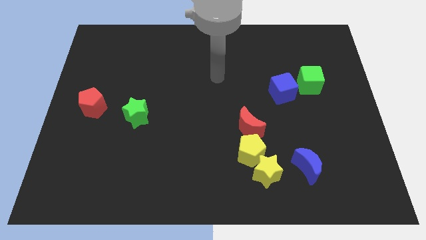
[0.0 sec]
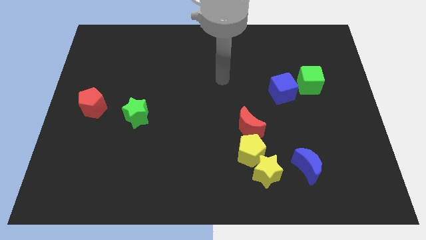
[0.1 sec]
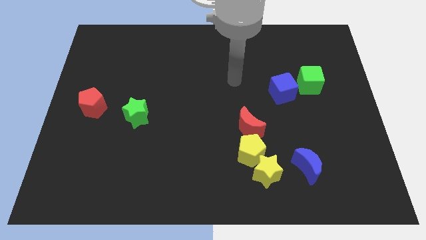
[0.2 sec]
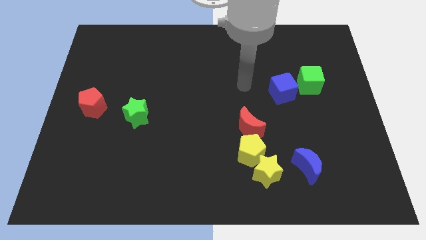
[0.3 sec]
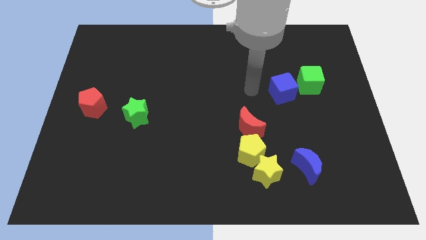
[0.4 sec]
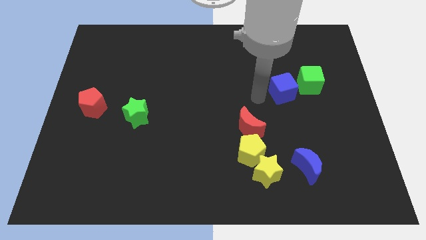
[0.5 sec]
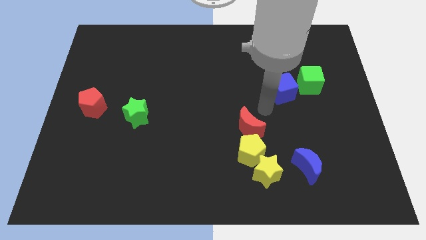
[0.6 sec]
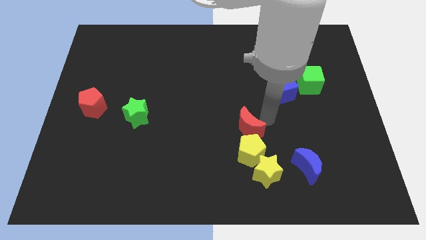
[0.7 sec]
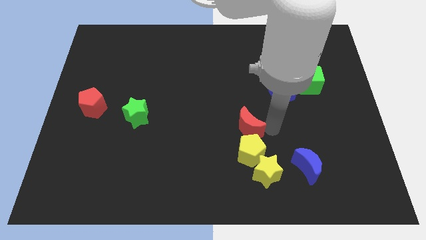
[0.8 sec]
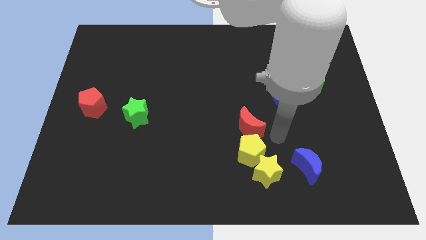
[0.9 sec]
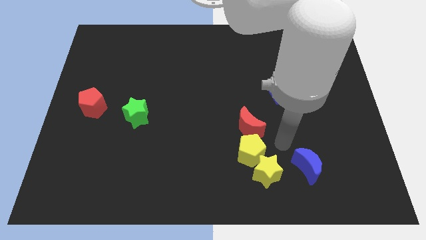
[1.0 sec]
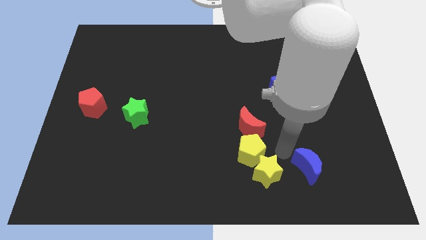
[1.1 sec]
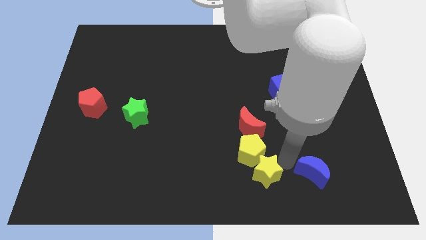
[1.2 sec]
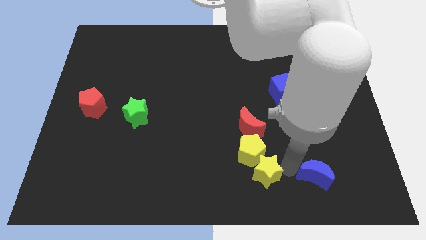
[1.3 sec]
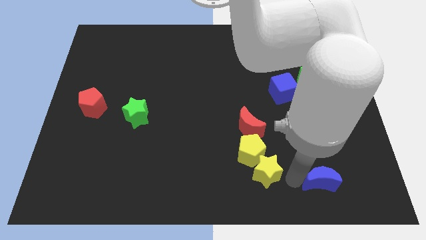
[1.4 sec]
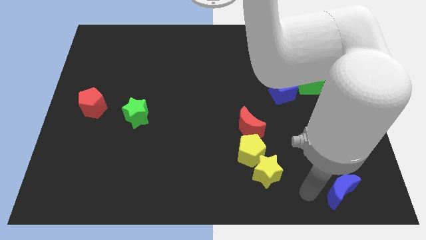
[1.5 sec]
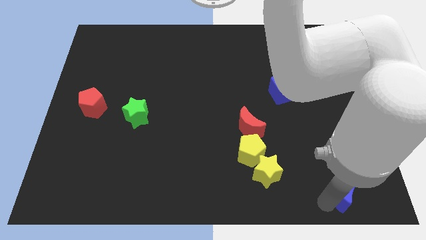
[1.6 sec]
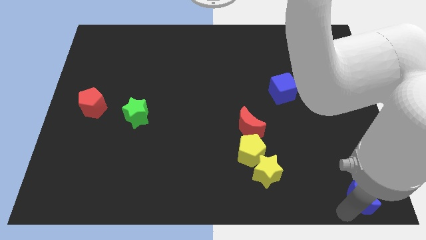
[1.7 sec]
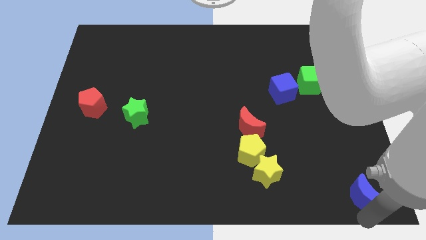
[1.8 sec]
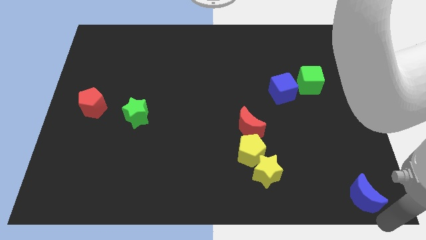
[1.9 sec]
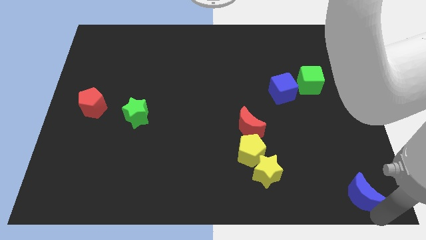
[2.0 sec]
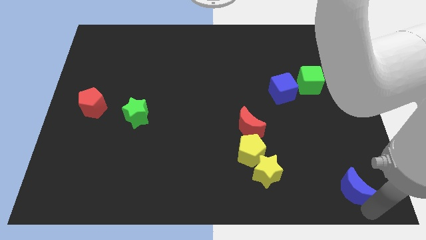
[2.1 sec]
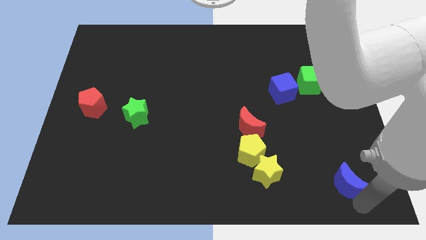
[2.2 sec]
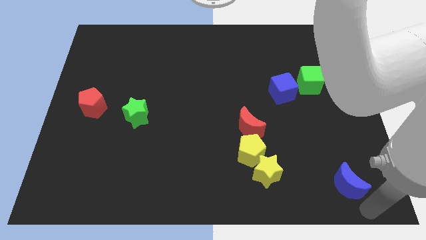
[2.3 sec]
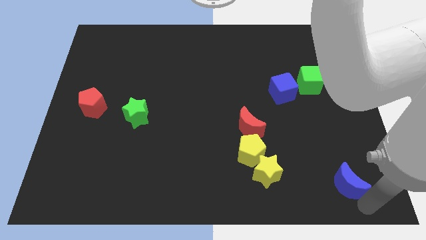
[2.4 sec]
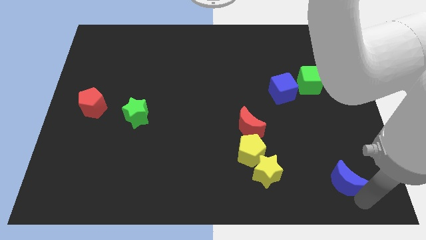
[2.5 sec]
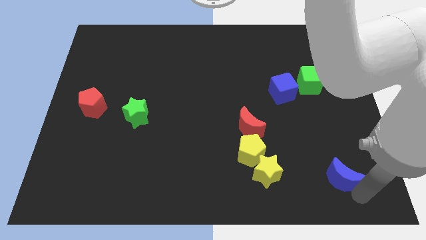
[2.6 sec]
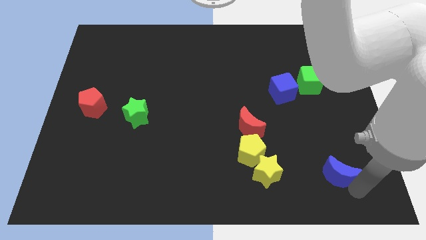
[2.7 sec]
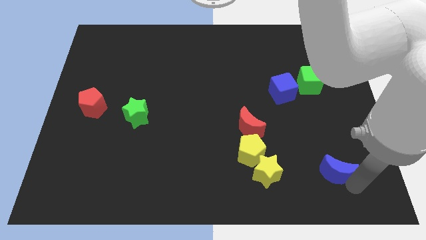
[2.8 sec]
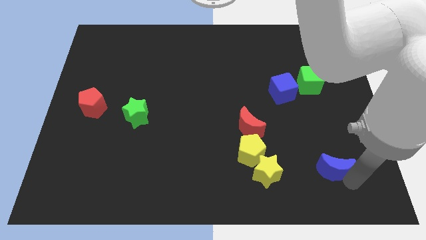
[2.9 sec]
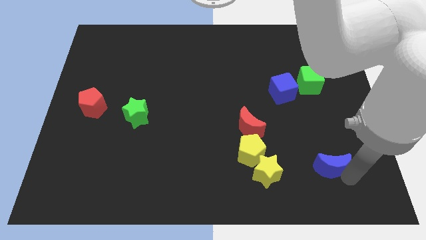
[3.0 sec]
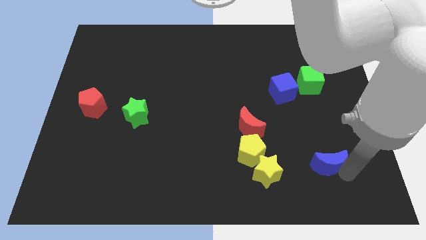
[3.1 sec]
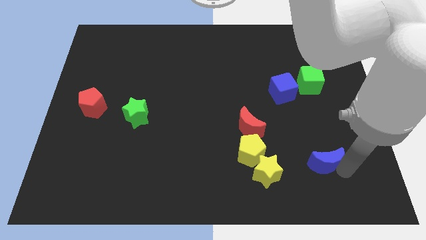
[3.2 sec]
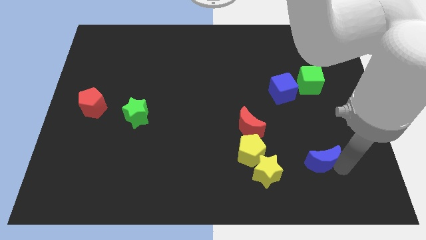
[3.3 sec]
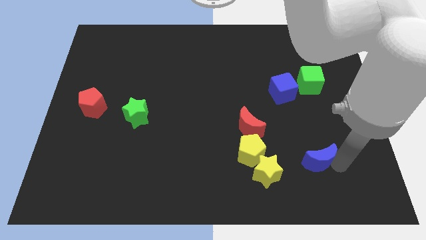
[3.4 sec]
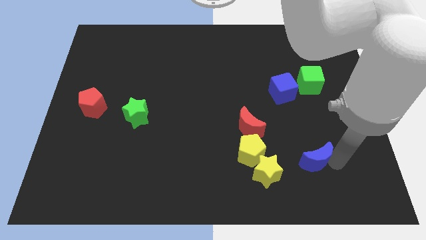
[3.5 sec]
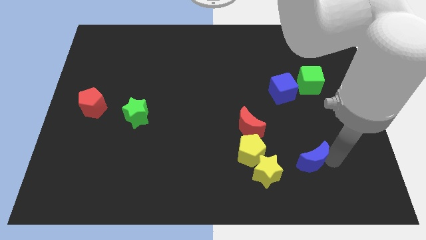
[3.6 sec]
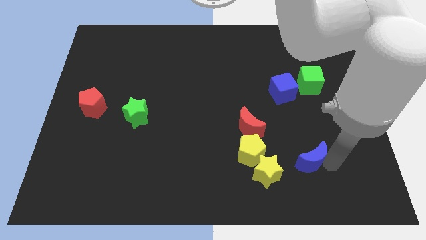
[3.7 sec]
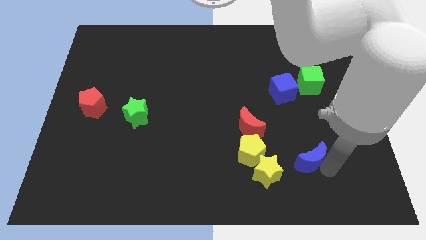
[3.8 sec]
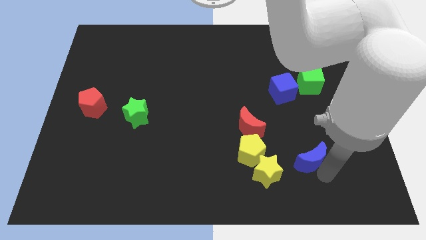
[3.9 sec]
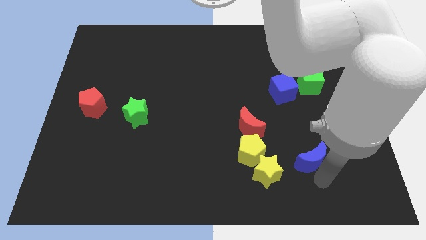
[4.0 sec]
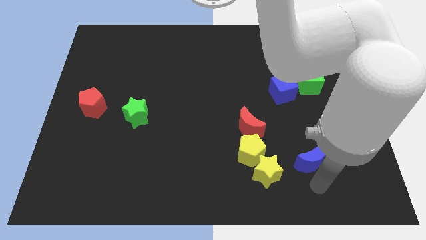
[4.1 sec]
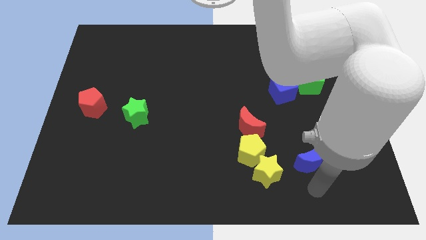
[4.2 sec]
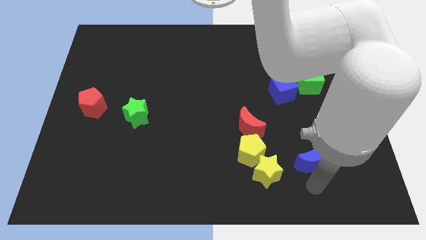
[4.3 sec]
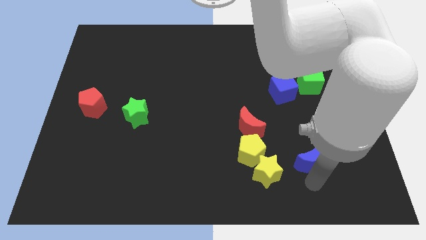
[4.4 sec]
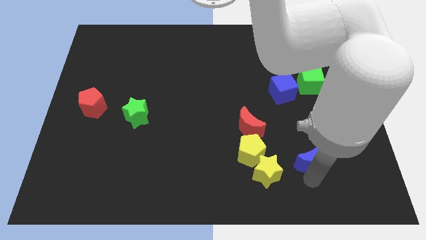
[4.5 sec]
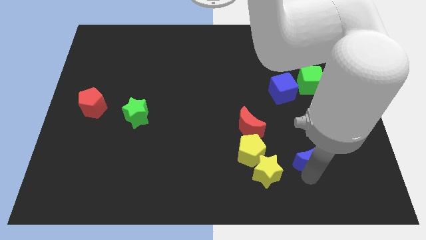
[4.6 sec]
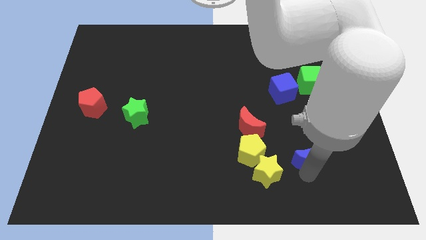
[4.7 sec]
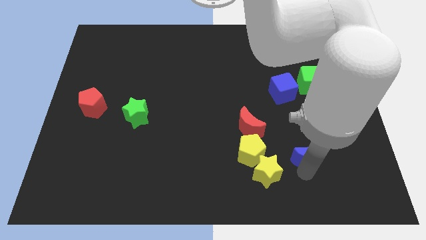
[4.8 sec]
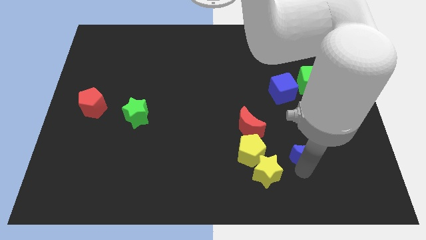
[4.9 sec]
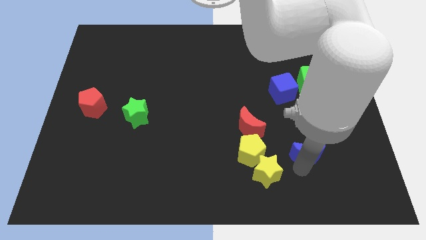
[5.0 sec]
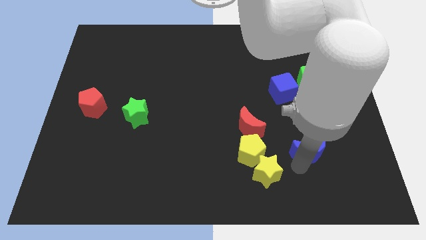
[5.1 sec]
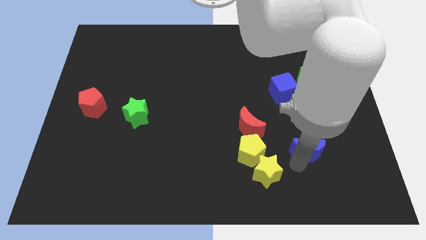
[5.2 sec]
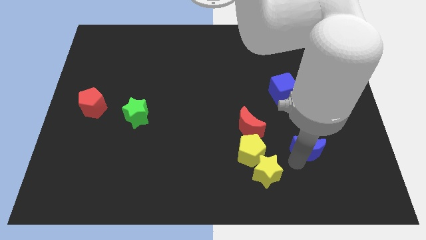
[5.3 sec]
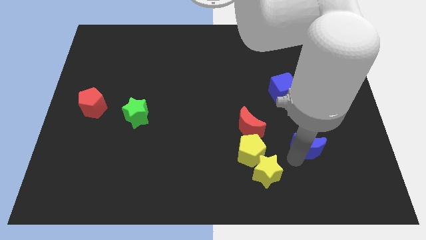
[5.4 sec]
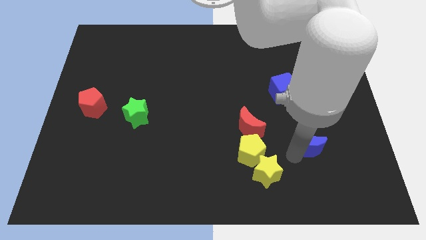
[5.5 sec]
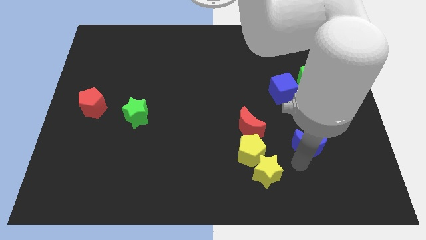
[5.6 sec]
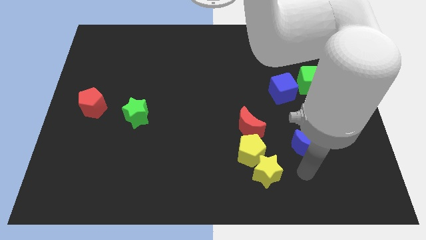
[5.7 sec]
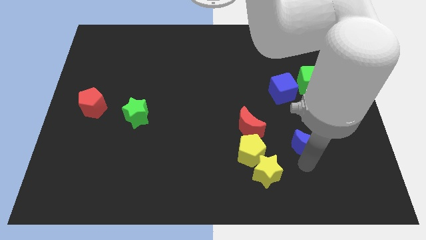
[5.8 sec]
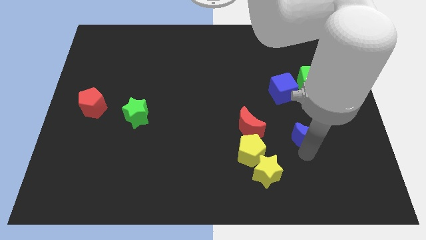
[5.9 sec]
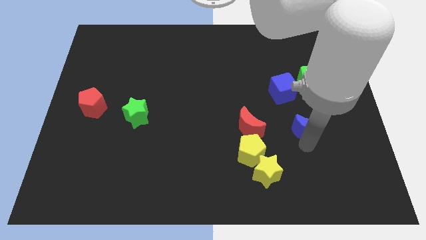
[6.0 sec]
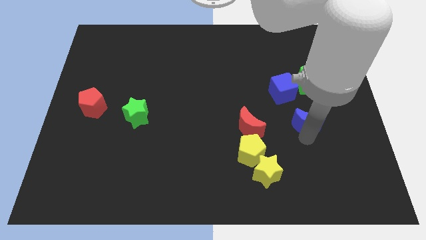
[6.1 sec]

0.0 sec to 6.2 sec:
put the blue moon to the bottom right of the blue cube

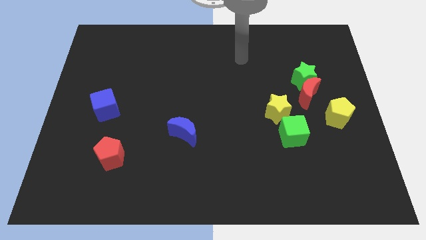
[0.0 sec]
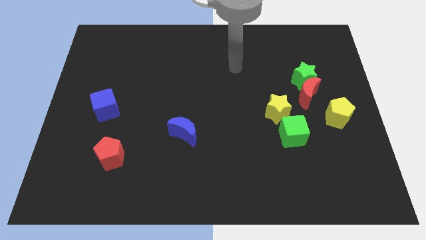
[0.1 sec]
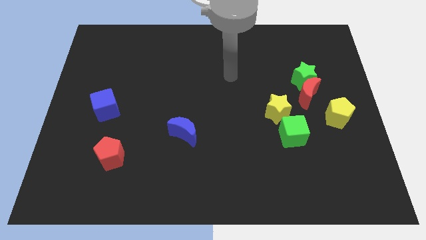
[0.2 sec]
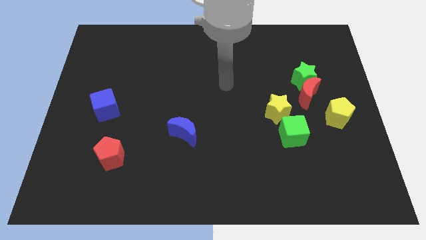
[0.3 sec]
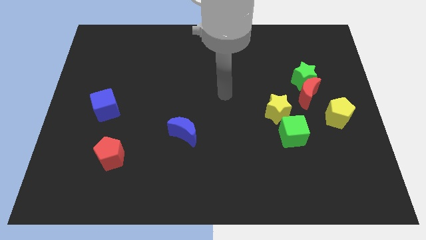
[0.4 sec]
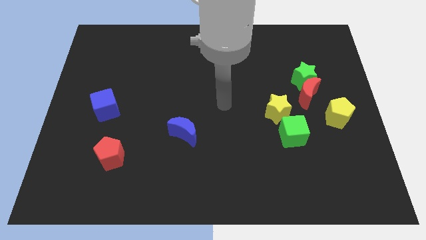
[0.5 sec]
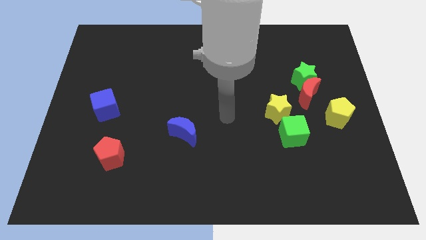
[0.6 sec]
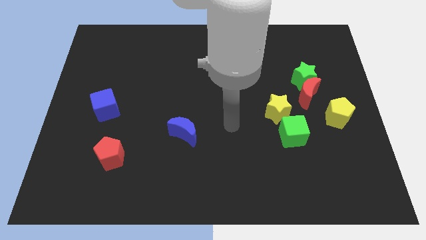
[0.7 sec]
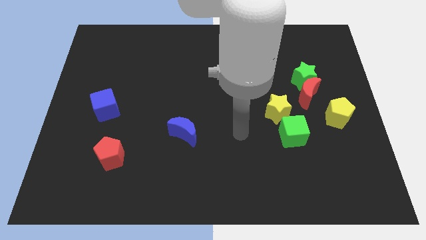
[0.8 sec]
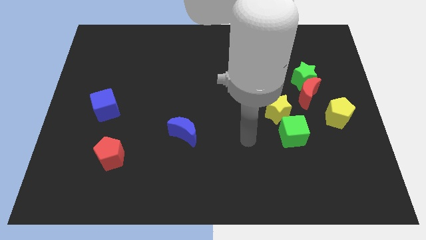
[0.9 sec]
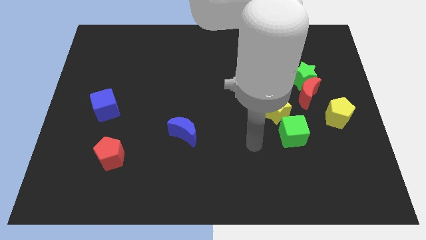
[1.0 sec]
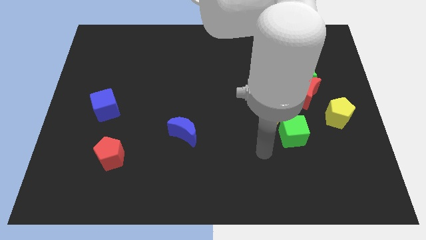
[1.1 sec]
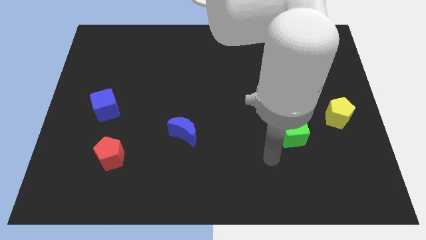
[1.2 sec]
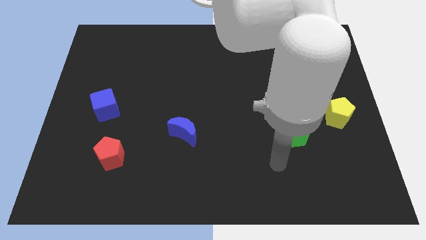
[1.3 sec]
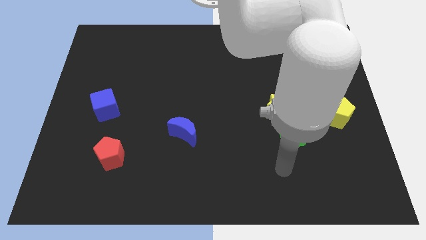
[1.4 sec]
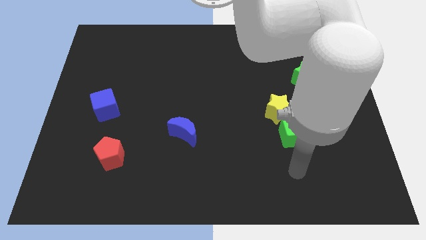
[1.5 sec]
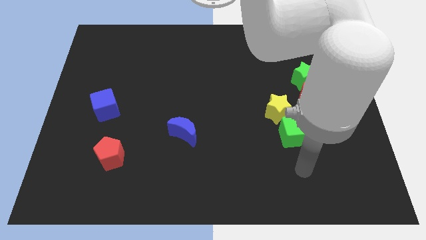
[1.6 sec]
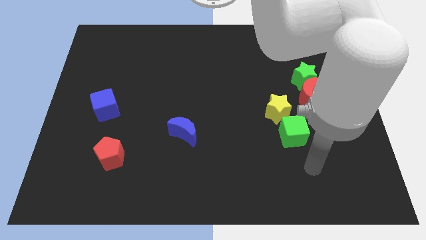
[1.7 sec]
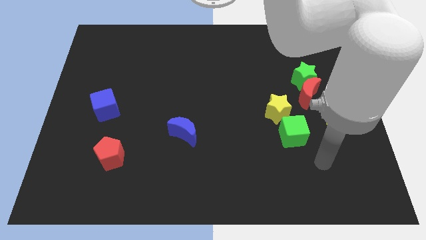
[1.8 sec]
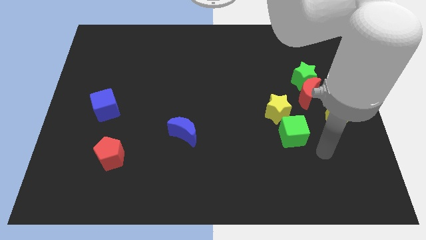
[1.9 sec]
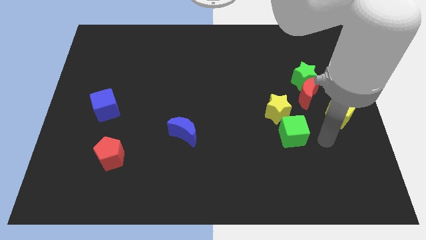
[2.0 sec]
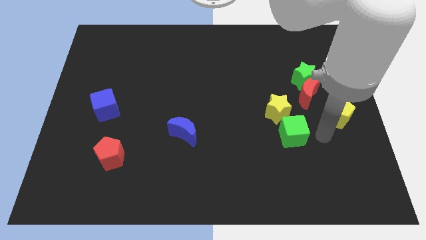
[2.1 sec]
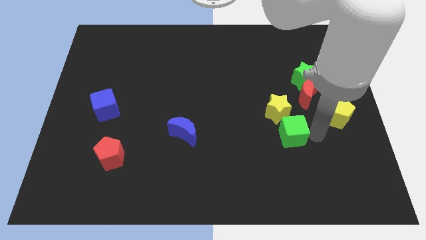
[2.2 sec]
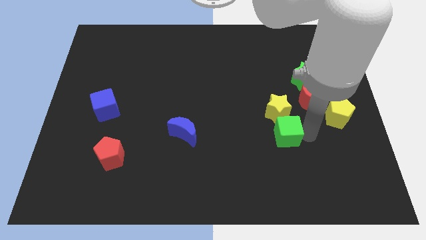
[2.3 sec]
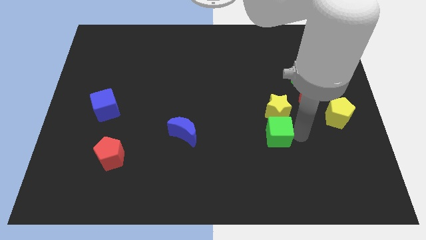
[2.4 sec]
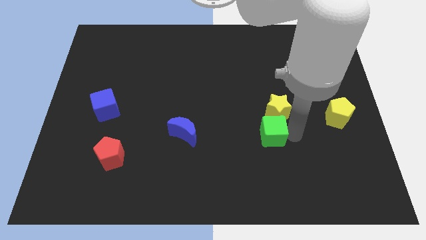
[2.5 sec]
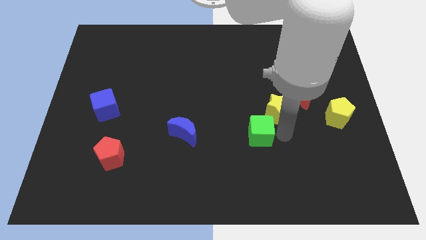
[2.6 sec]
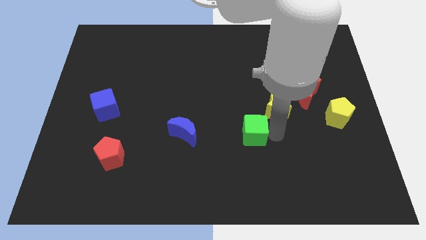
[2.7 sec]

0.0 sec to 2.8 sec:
put the green cube to the right side of the blue moon
